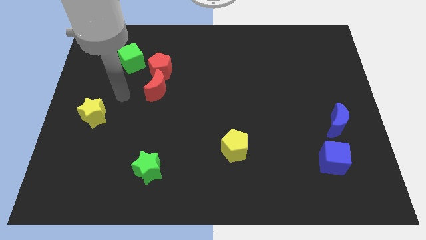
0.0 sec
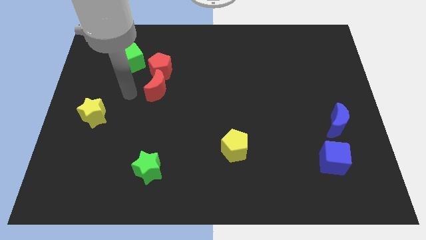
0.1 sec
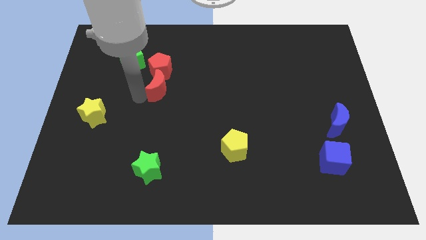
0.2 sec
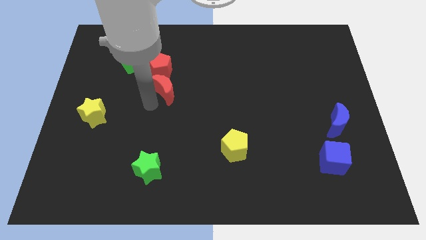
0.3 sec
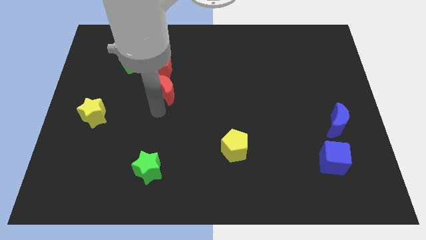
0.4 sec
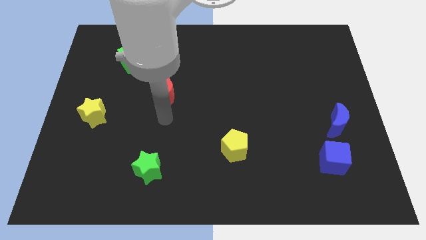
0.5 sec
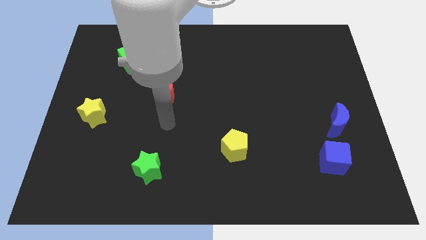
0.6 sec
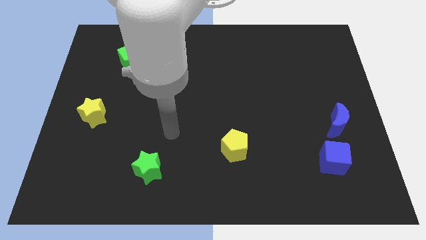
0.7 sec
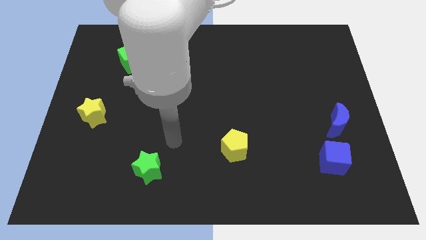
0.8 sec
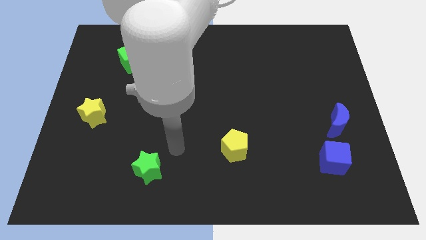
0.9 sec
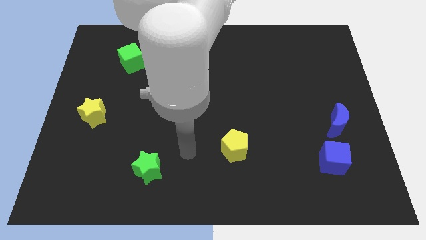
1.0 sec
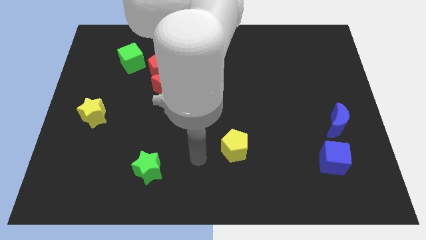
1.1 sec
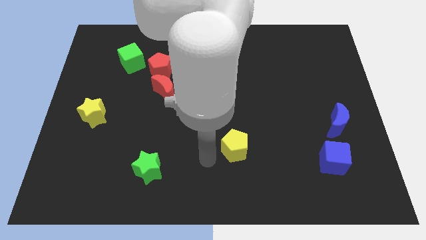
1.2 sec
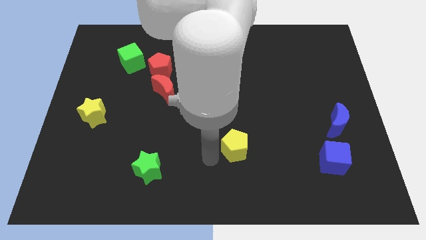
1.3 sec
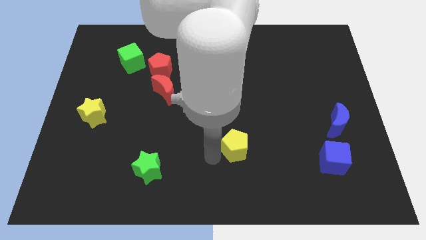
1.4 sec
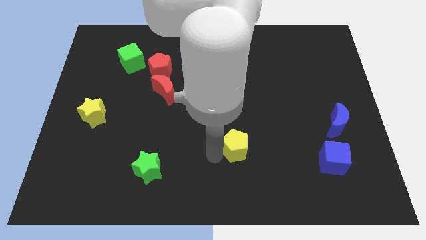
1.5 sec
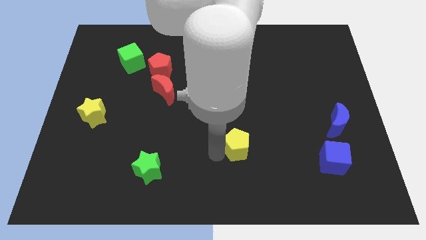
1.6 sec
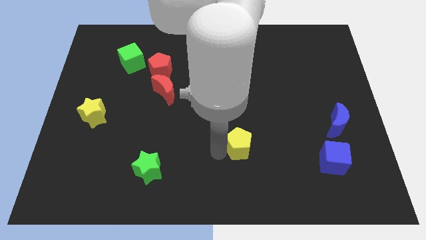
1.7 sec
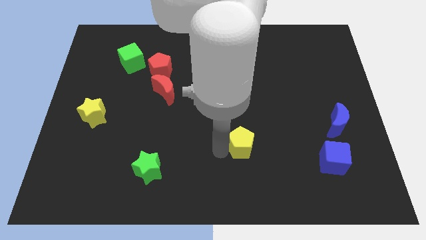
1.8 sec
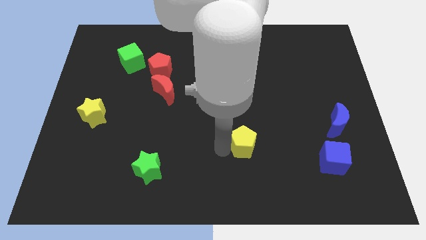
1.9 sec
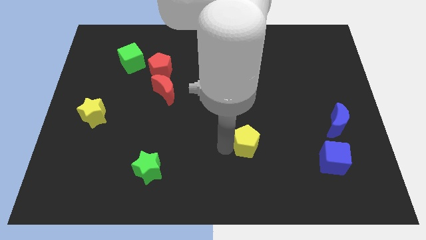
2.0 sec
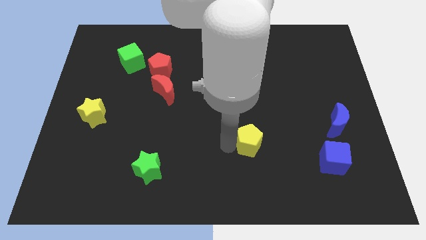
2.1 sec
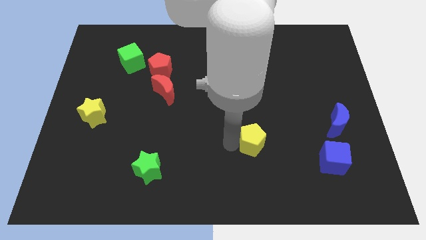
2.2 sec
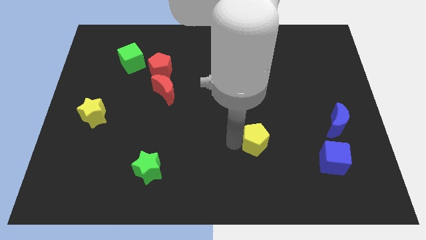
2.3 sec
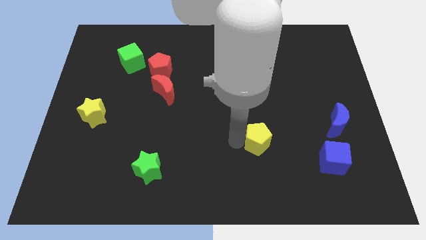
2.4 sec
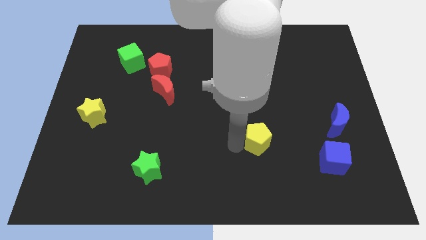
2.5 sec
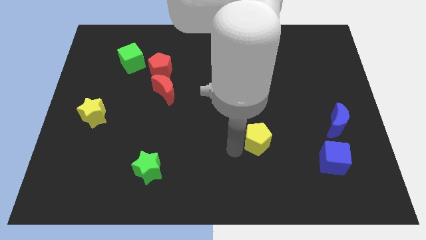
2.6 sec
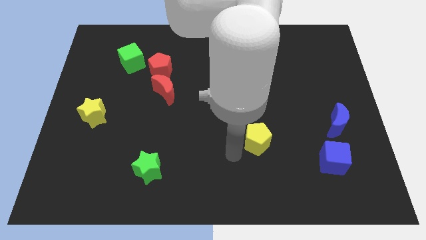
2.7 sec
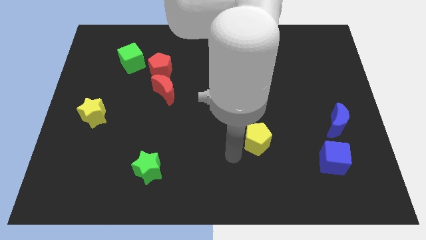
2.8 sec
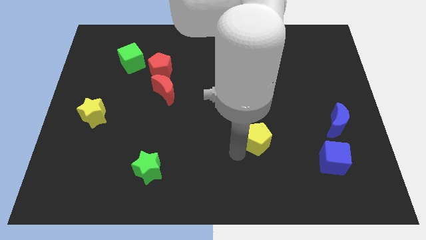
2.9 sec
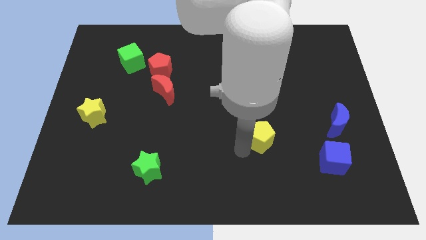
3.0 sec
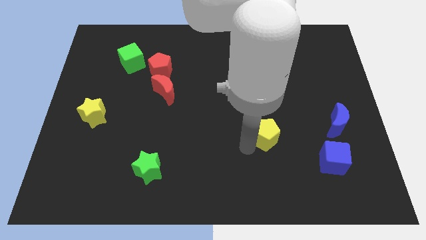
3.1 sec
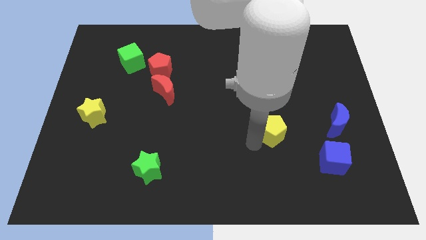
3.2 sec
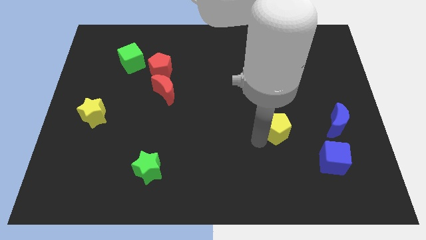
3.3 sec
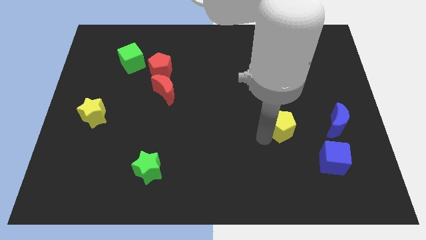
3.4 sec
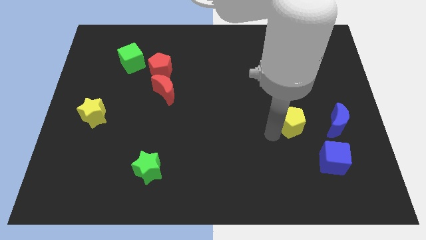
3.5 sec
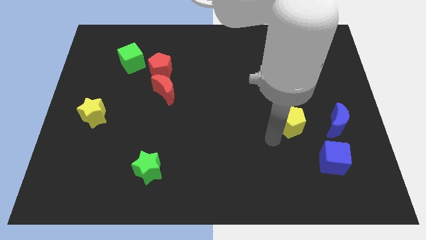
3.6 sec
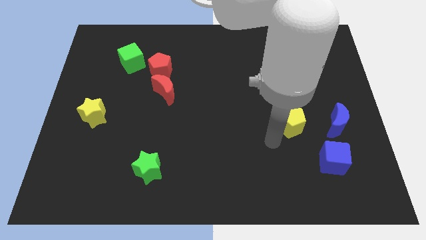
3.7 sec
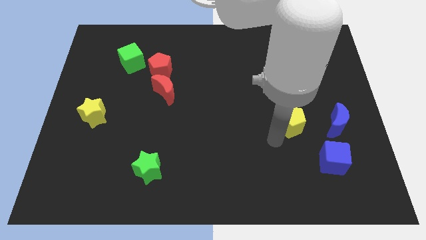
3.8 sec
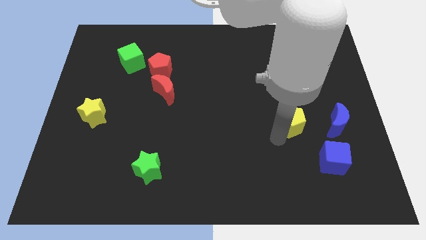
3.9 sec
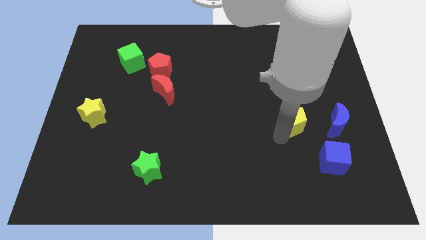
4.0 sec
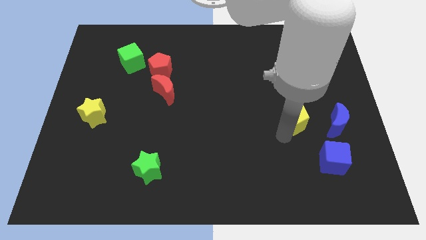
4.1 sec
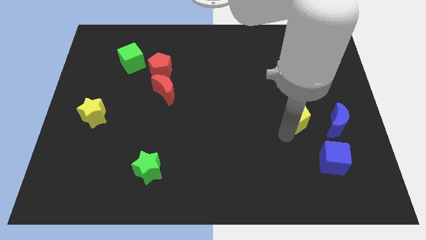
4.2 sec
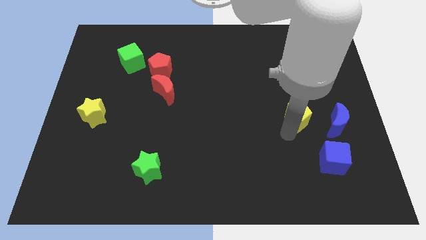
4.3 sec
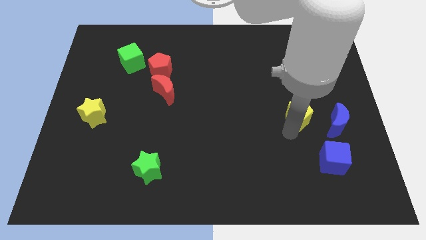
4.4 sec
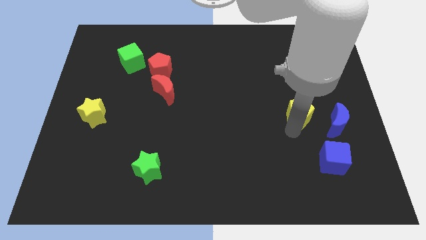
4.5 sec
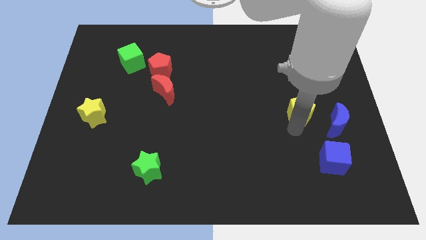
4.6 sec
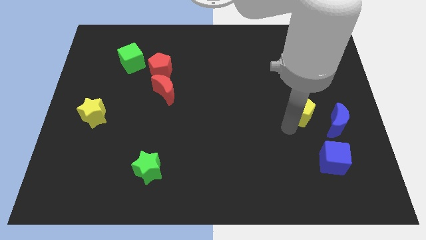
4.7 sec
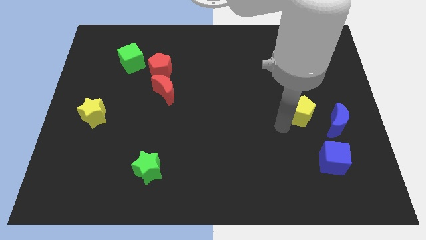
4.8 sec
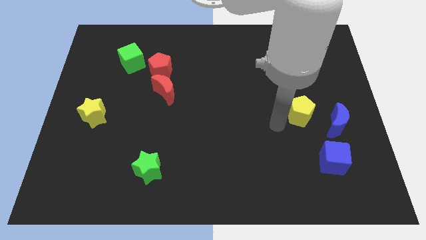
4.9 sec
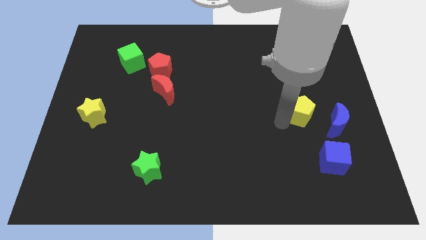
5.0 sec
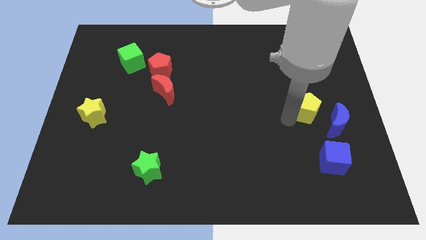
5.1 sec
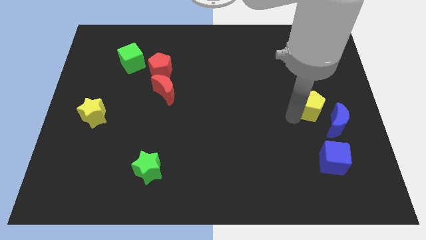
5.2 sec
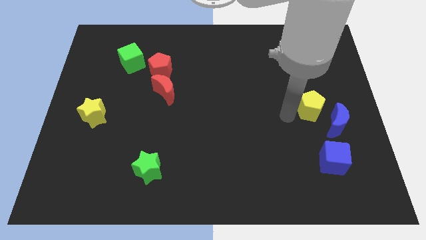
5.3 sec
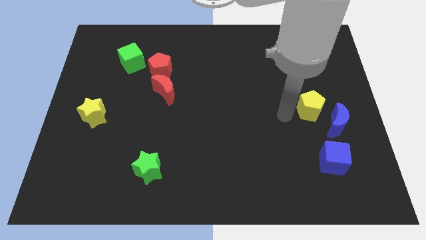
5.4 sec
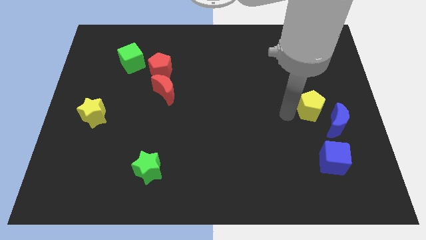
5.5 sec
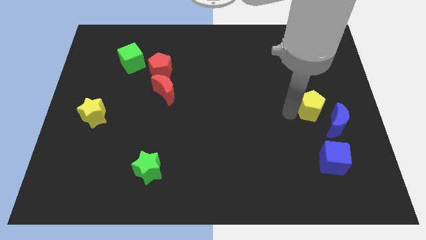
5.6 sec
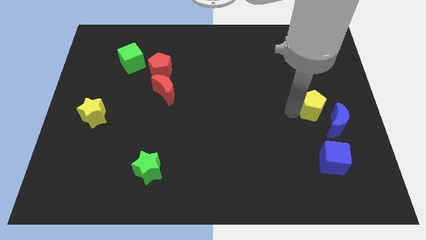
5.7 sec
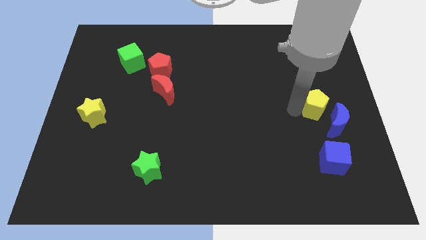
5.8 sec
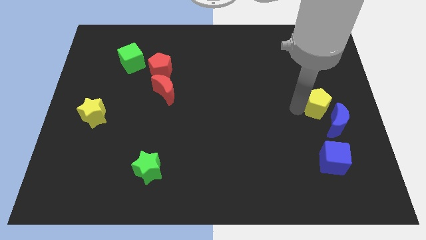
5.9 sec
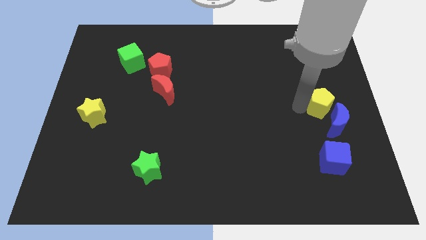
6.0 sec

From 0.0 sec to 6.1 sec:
slide the yellow pentagon to the right side of the board
